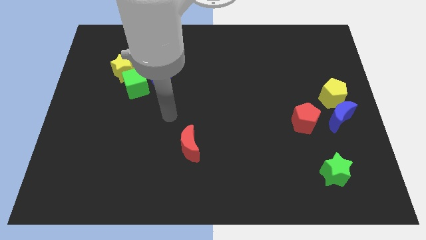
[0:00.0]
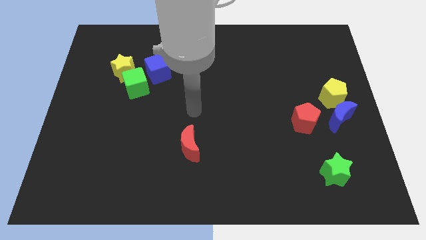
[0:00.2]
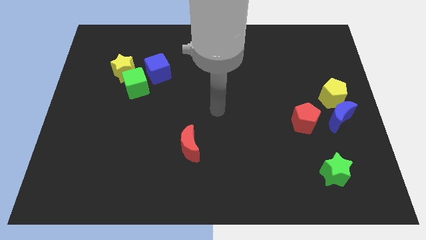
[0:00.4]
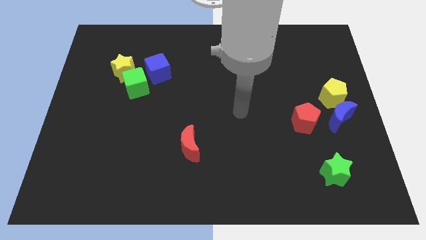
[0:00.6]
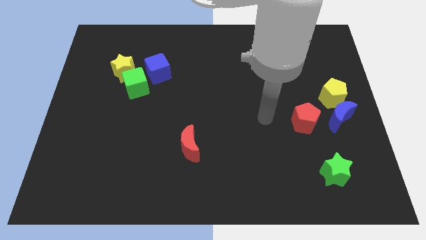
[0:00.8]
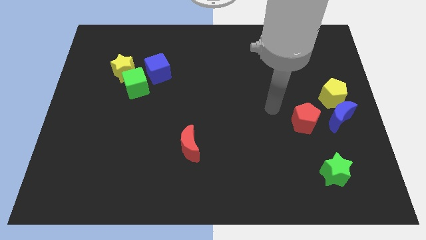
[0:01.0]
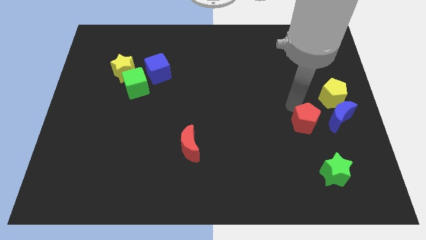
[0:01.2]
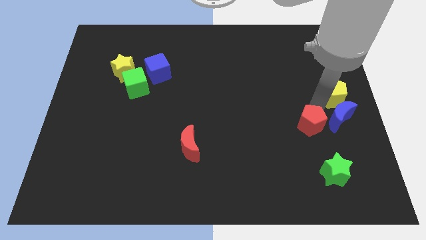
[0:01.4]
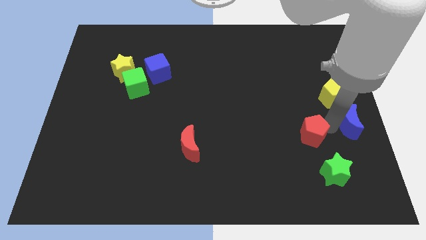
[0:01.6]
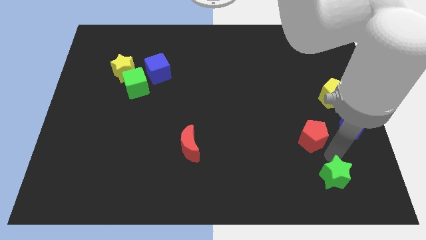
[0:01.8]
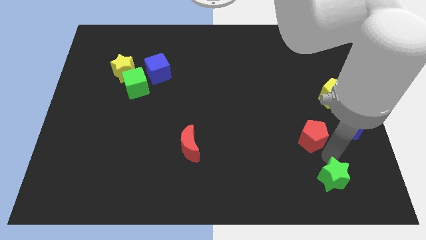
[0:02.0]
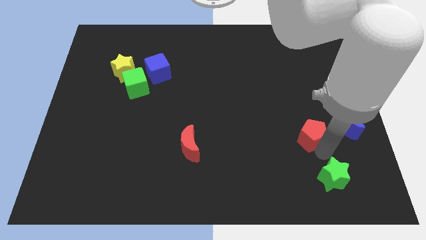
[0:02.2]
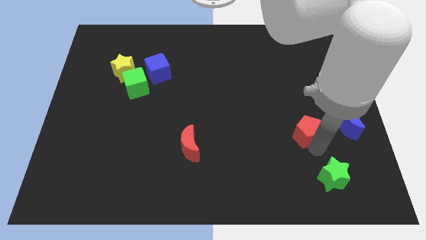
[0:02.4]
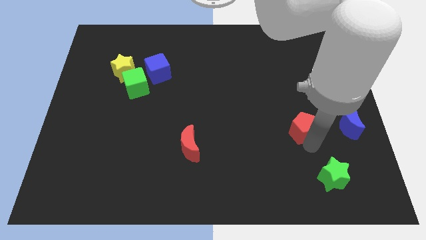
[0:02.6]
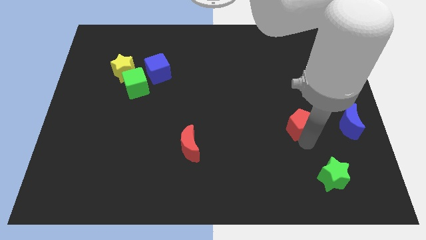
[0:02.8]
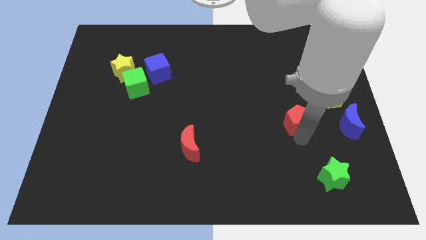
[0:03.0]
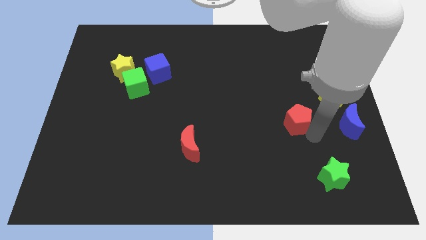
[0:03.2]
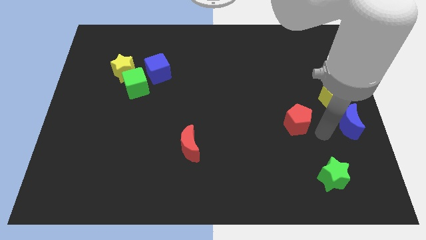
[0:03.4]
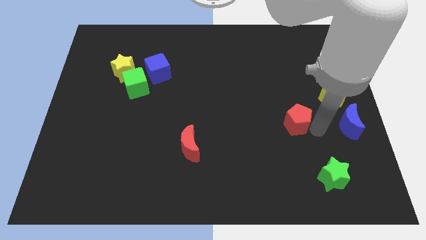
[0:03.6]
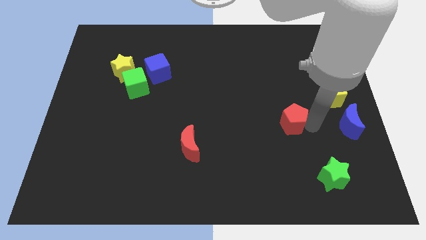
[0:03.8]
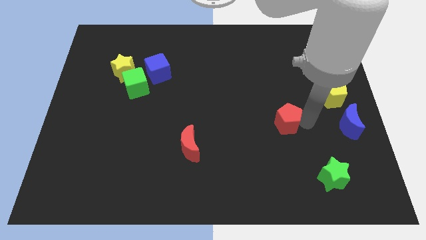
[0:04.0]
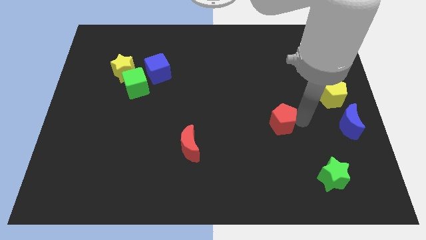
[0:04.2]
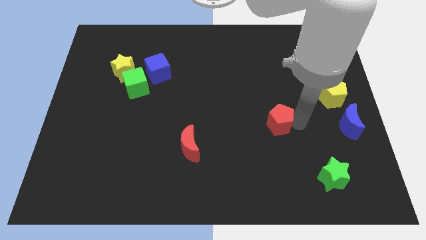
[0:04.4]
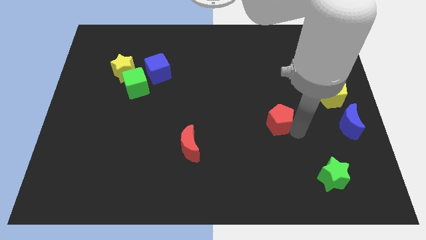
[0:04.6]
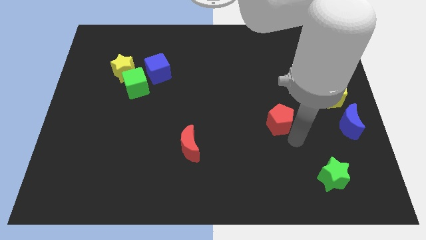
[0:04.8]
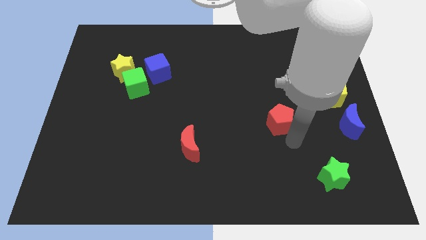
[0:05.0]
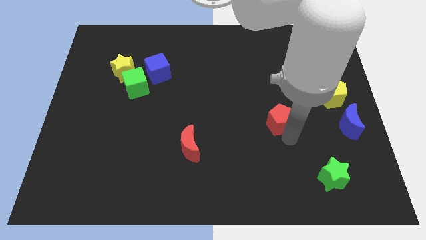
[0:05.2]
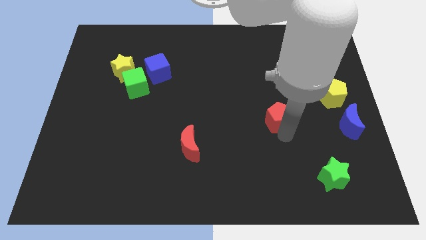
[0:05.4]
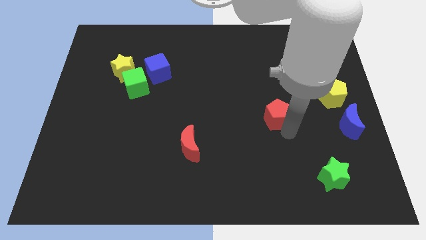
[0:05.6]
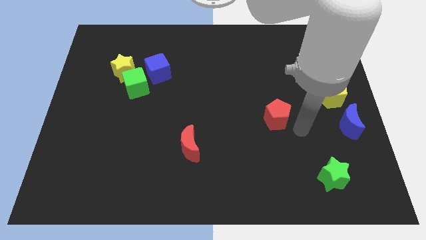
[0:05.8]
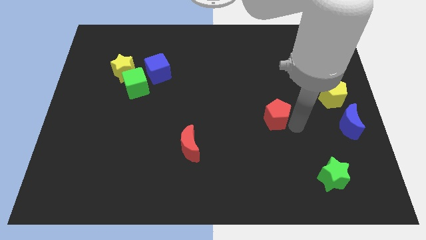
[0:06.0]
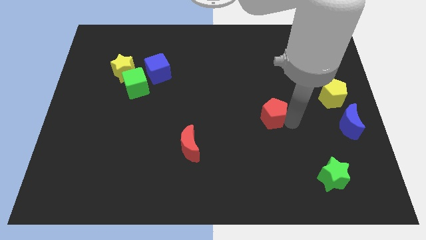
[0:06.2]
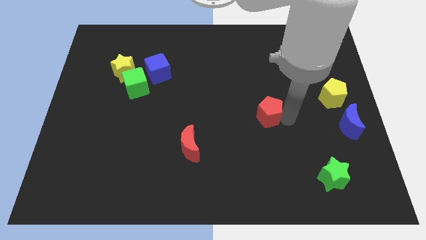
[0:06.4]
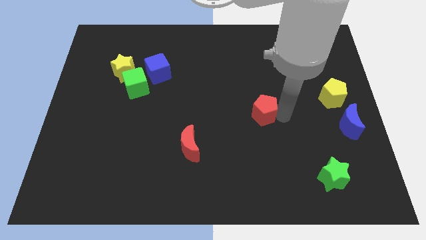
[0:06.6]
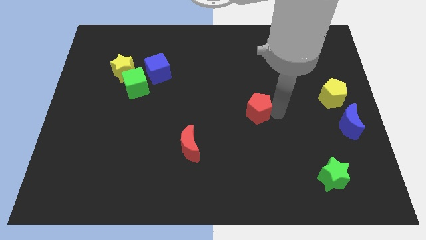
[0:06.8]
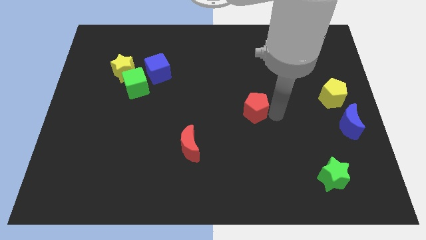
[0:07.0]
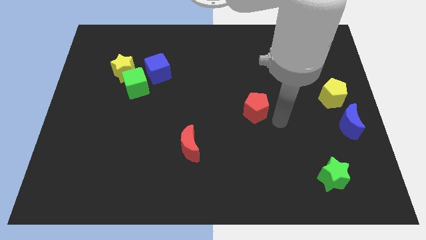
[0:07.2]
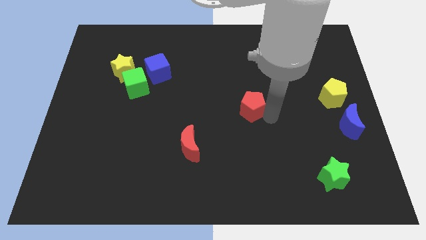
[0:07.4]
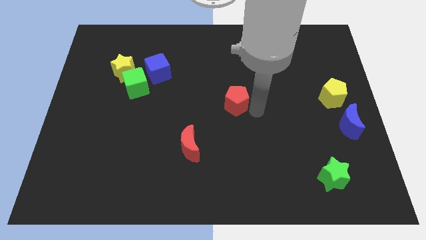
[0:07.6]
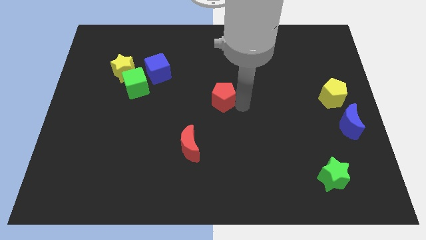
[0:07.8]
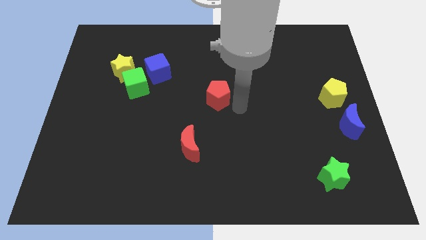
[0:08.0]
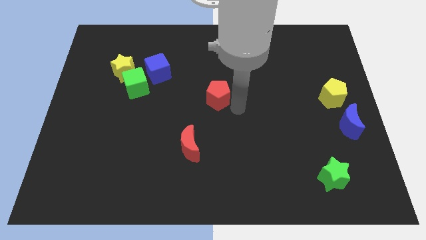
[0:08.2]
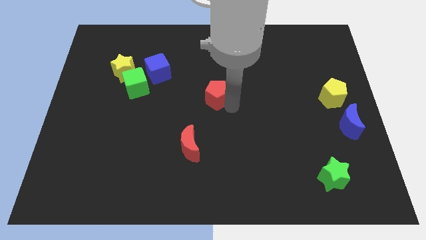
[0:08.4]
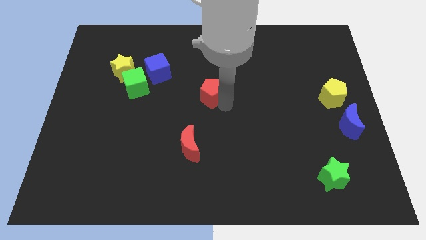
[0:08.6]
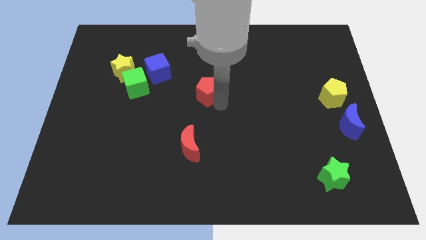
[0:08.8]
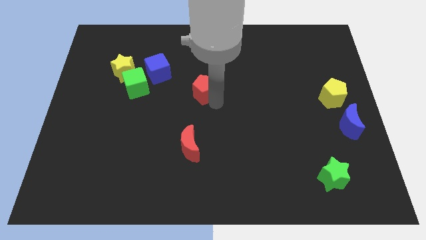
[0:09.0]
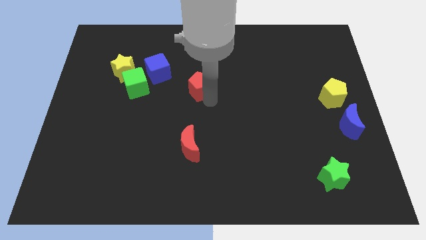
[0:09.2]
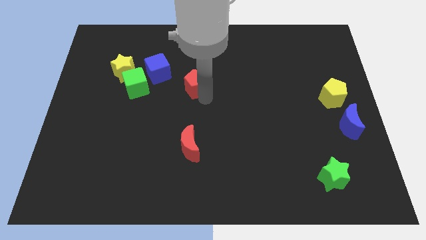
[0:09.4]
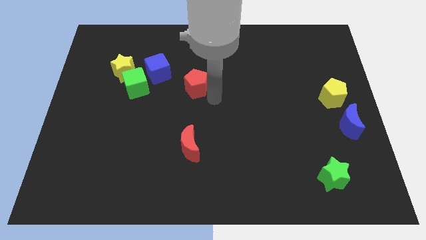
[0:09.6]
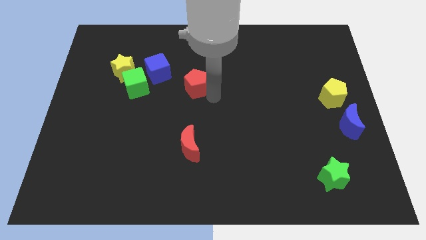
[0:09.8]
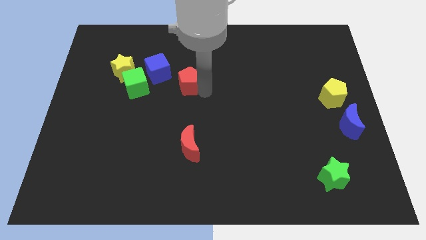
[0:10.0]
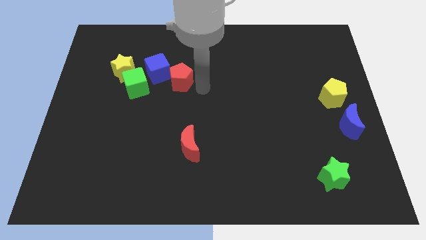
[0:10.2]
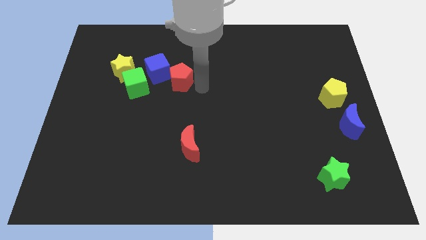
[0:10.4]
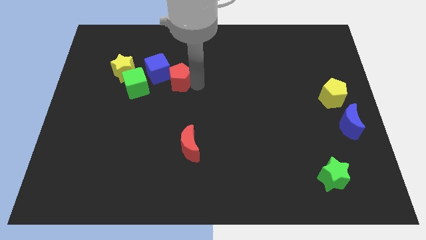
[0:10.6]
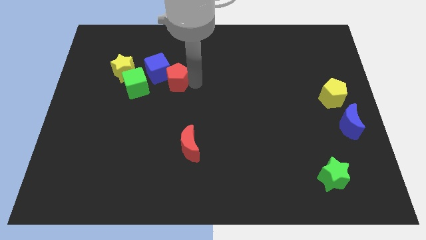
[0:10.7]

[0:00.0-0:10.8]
put the red pentagon to the blue cube

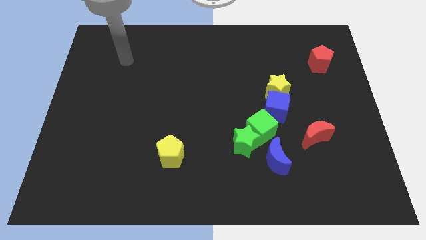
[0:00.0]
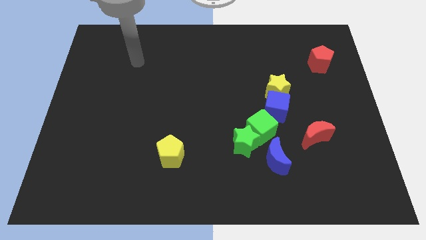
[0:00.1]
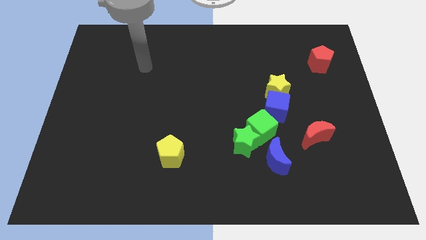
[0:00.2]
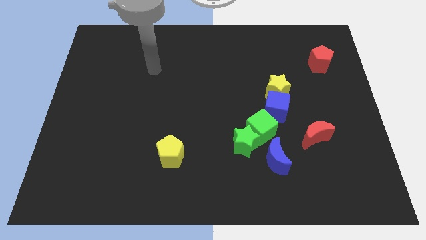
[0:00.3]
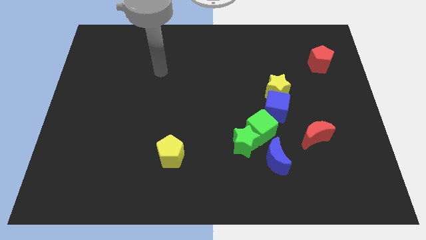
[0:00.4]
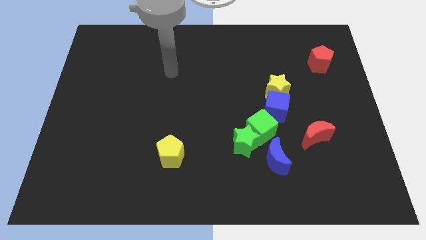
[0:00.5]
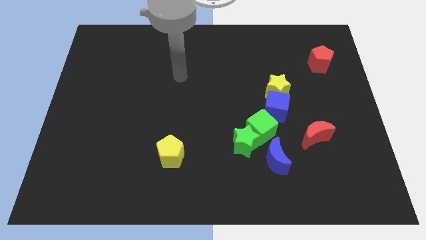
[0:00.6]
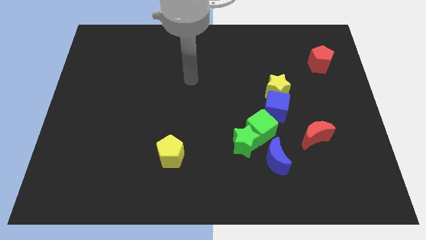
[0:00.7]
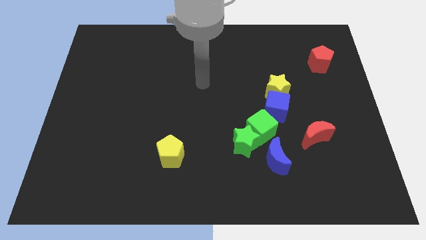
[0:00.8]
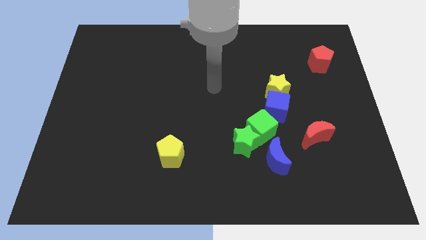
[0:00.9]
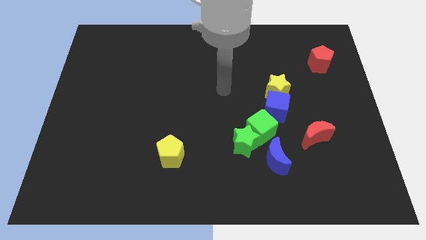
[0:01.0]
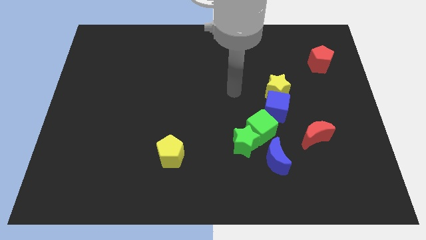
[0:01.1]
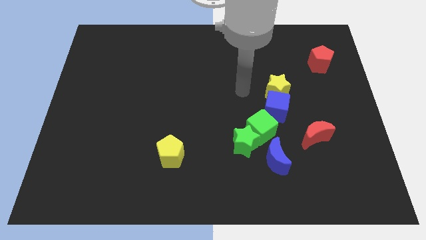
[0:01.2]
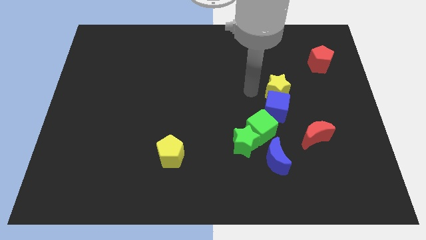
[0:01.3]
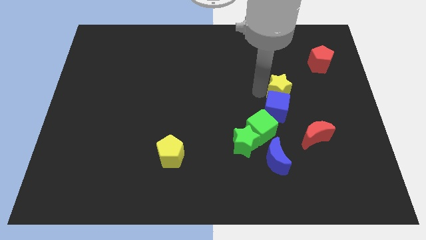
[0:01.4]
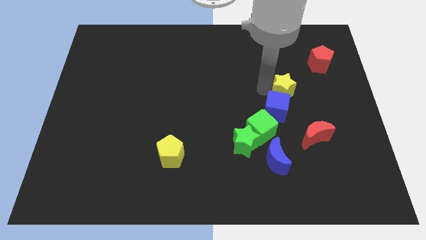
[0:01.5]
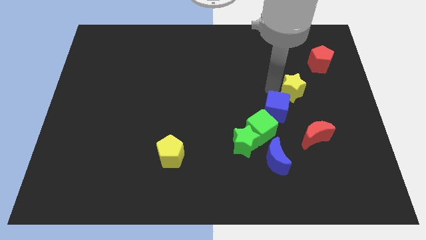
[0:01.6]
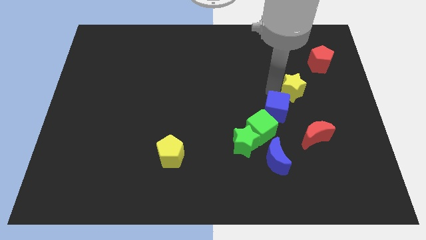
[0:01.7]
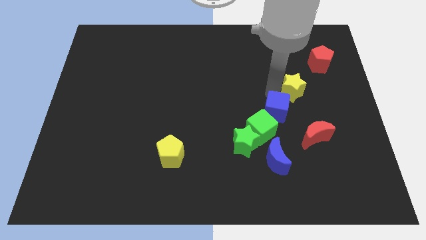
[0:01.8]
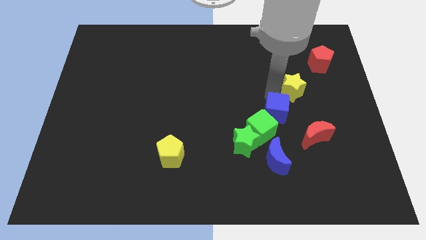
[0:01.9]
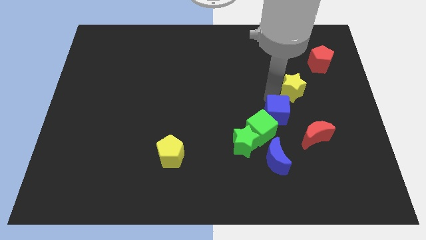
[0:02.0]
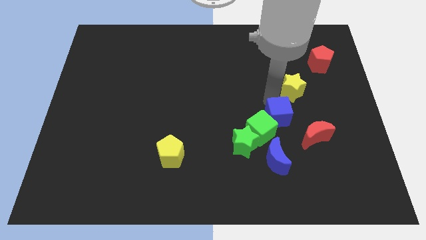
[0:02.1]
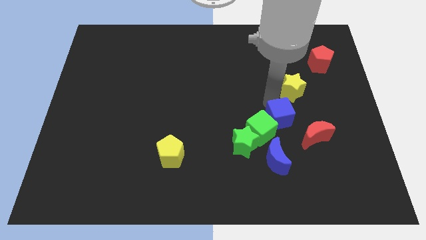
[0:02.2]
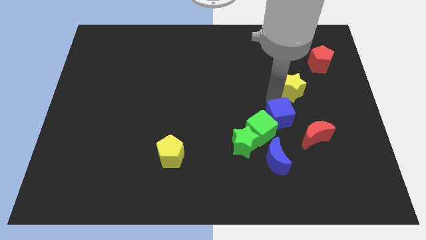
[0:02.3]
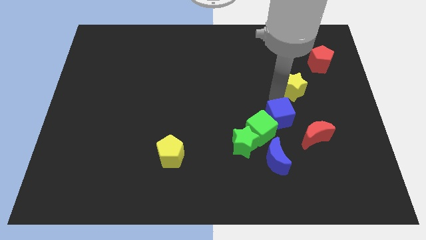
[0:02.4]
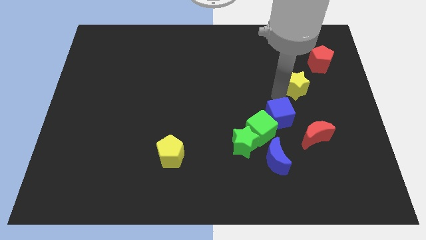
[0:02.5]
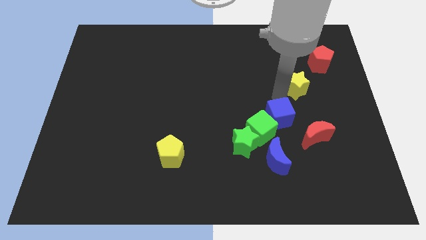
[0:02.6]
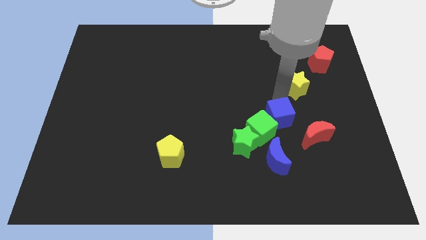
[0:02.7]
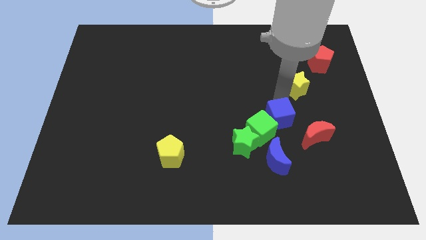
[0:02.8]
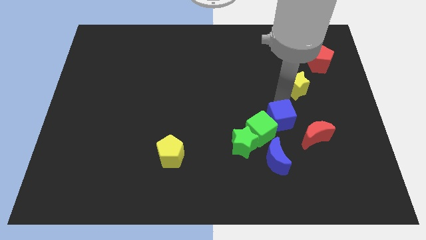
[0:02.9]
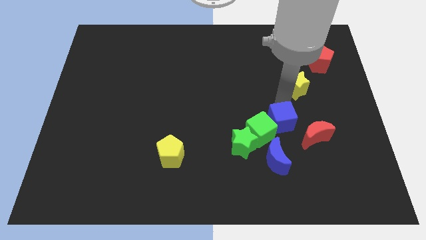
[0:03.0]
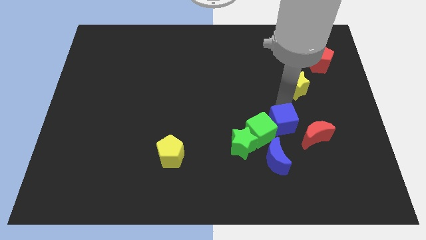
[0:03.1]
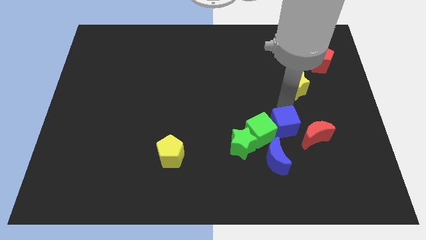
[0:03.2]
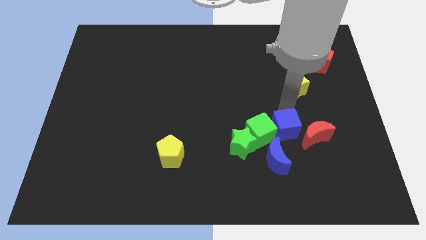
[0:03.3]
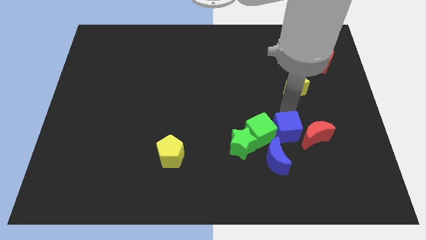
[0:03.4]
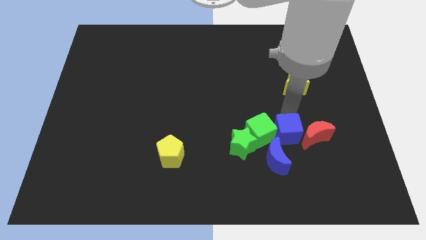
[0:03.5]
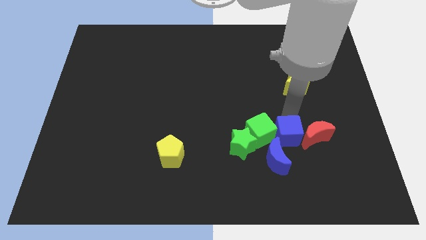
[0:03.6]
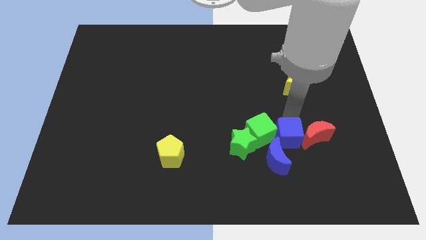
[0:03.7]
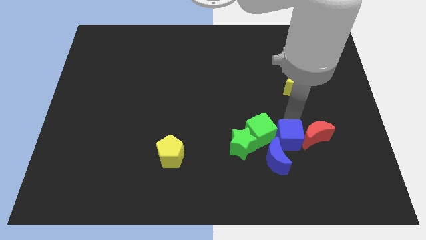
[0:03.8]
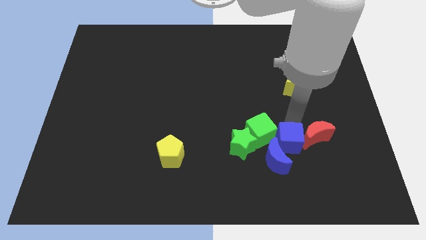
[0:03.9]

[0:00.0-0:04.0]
push the blue cube to the blue moon
